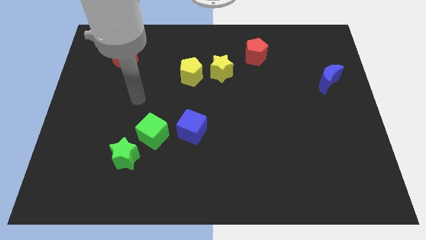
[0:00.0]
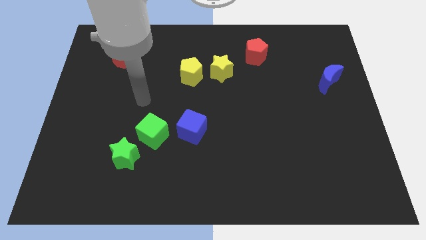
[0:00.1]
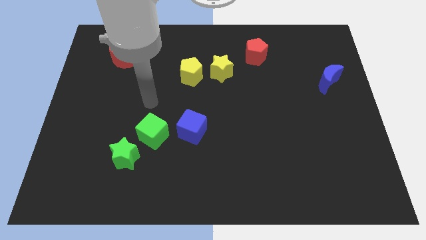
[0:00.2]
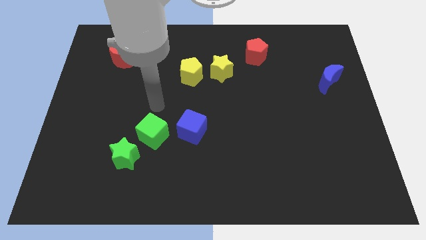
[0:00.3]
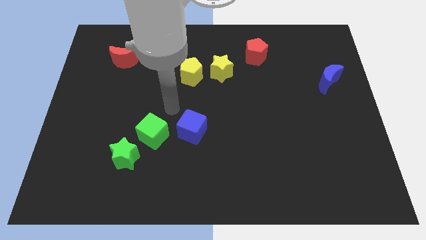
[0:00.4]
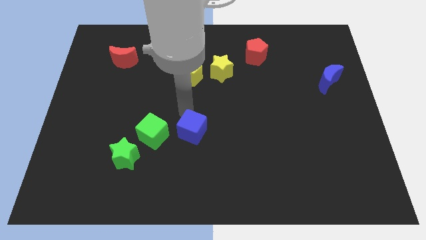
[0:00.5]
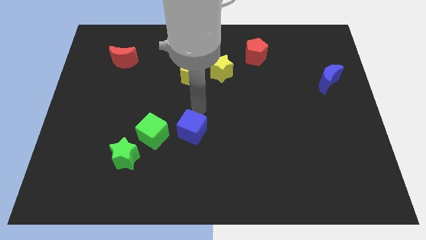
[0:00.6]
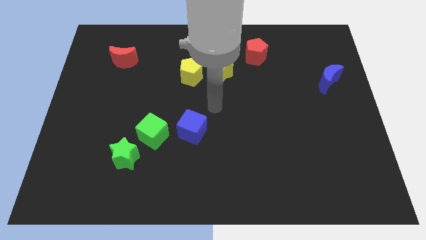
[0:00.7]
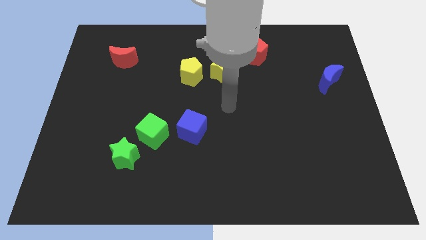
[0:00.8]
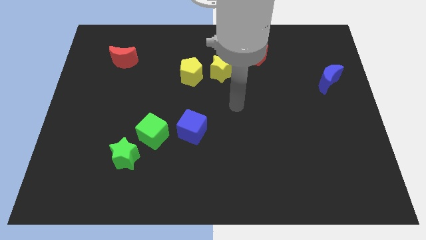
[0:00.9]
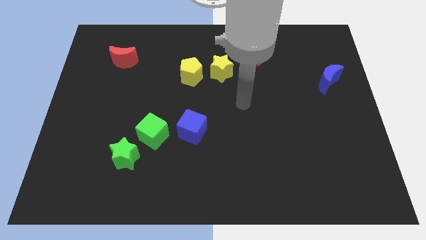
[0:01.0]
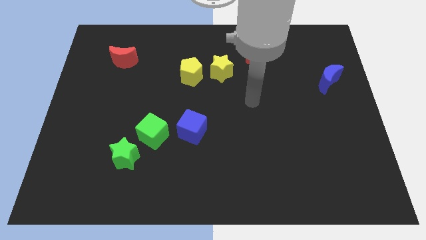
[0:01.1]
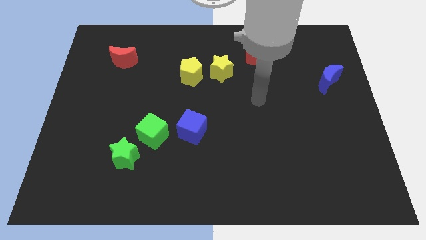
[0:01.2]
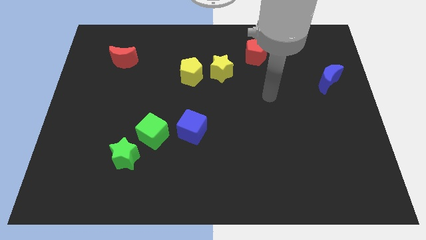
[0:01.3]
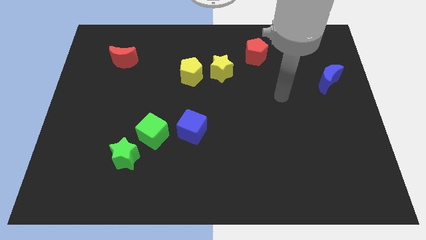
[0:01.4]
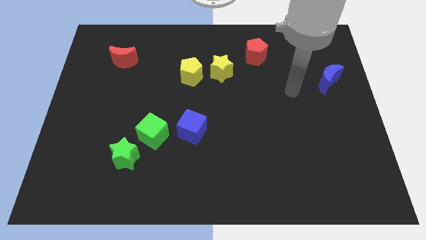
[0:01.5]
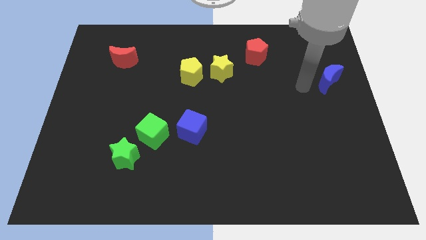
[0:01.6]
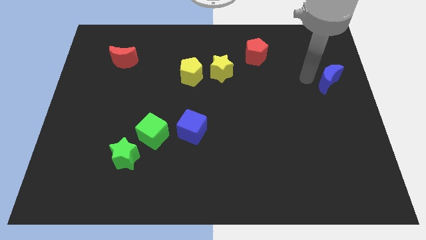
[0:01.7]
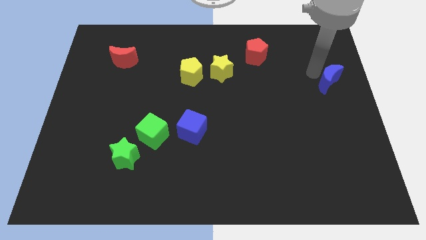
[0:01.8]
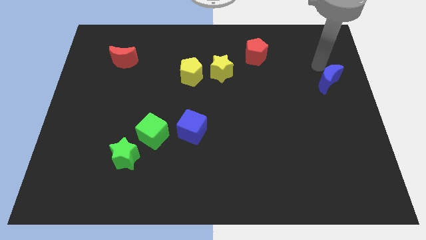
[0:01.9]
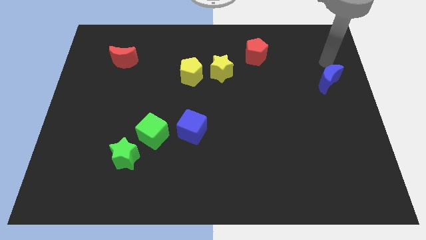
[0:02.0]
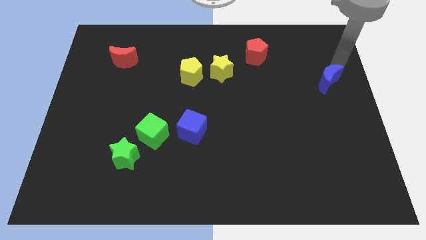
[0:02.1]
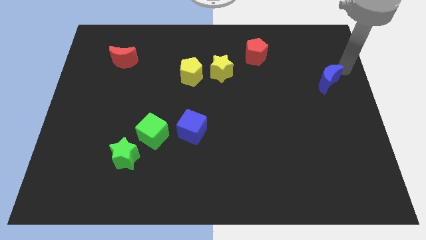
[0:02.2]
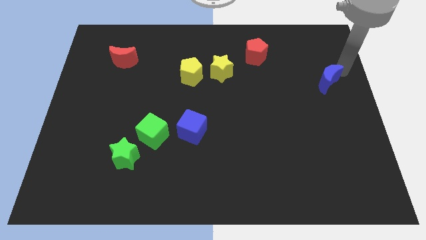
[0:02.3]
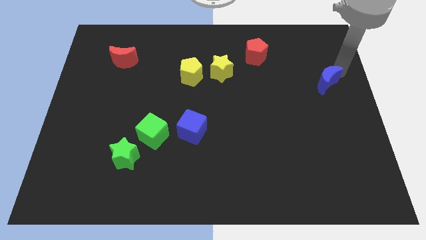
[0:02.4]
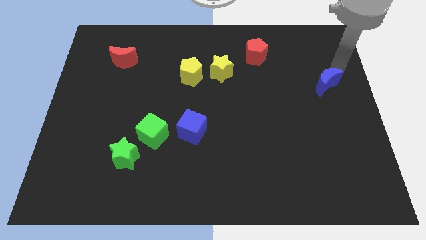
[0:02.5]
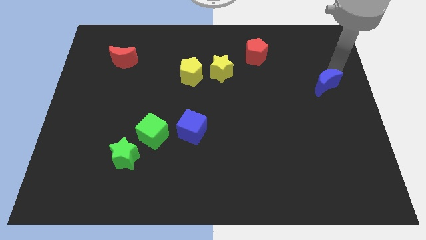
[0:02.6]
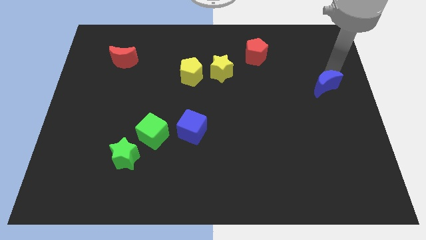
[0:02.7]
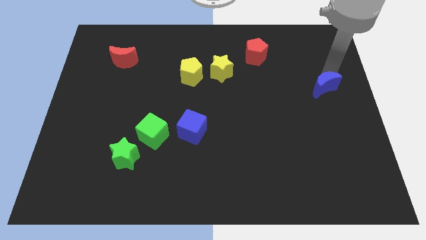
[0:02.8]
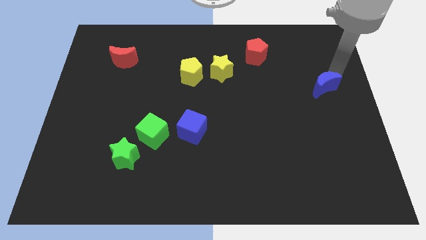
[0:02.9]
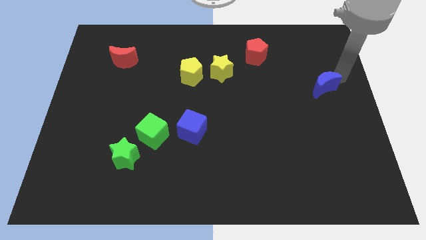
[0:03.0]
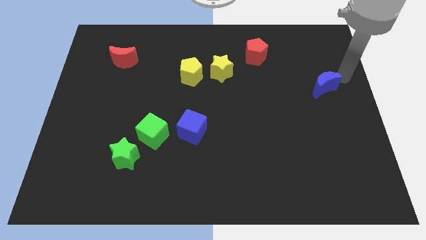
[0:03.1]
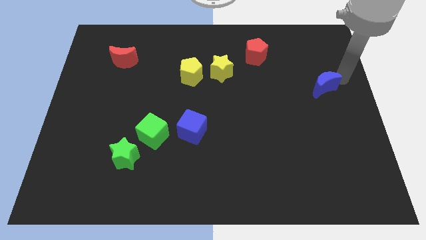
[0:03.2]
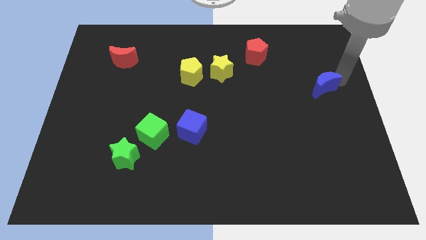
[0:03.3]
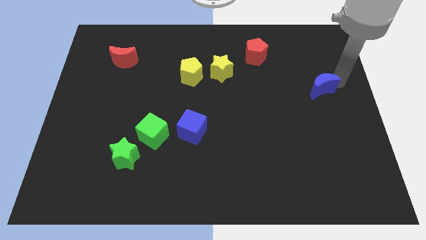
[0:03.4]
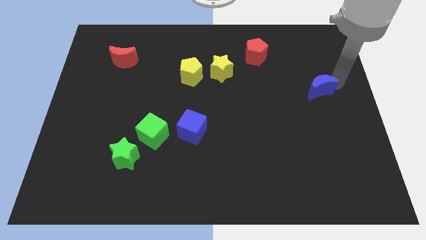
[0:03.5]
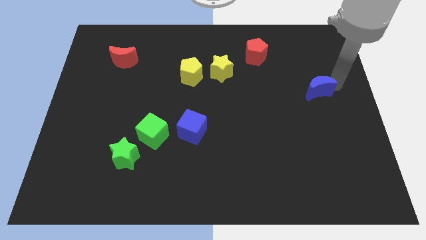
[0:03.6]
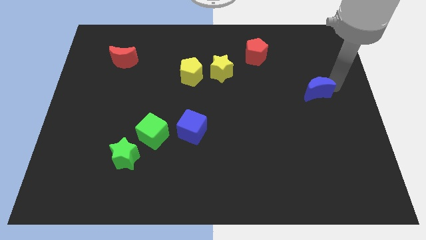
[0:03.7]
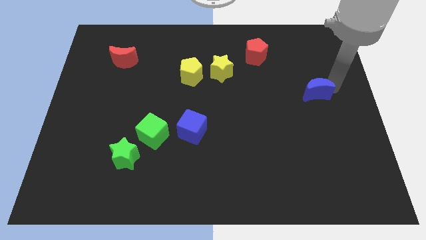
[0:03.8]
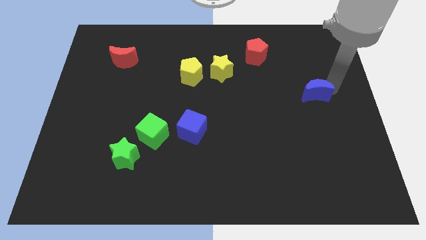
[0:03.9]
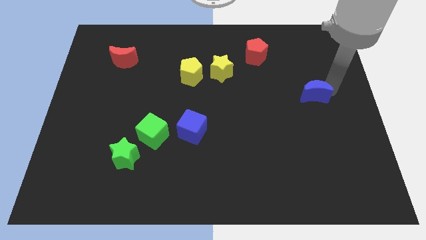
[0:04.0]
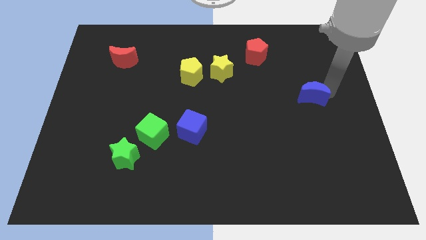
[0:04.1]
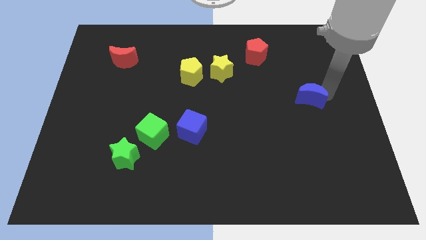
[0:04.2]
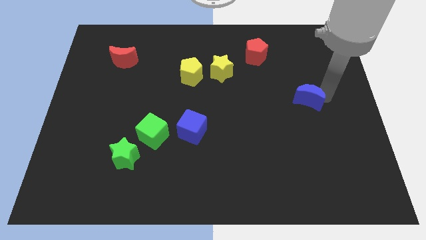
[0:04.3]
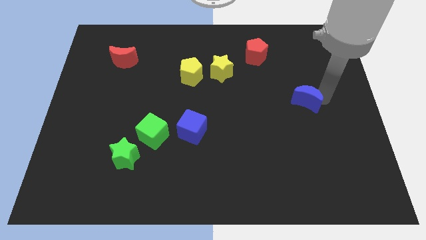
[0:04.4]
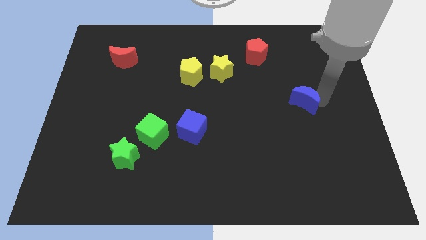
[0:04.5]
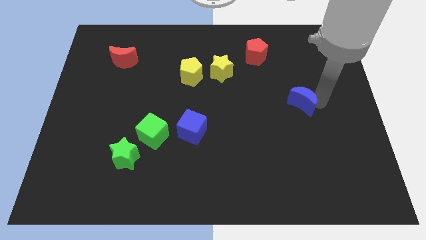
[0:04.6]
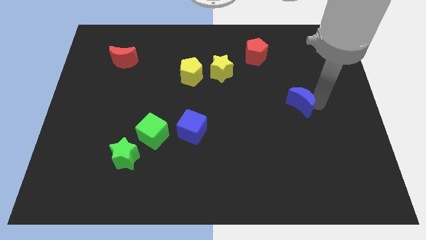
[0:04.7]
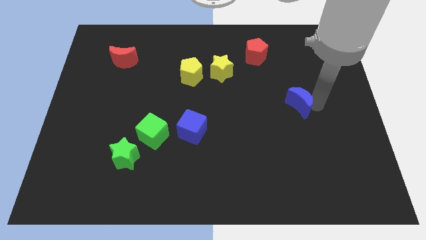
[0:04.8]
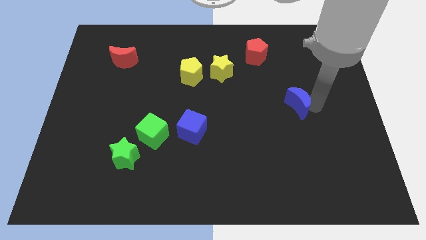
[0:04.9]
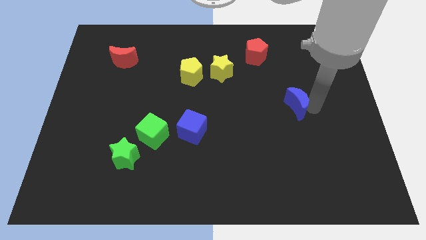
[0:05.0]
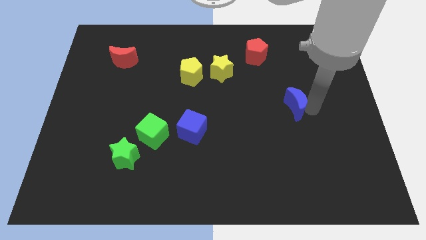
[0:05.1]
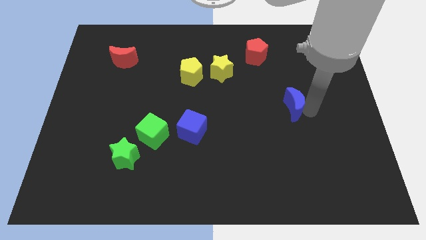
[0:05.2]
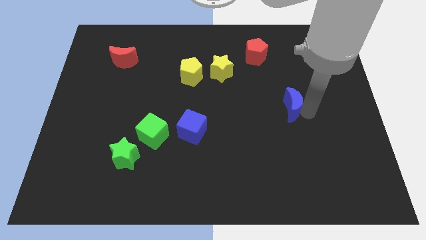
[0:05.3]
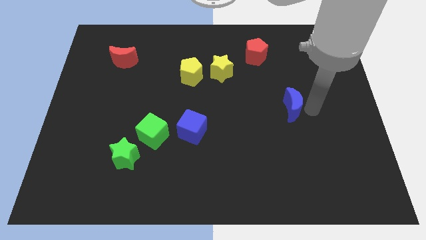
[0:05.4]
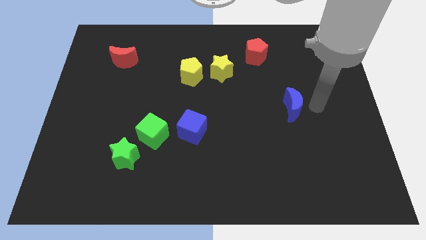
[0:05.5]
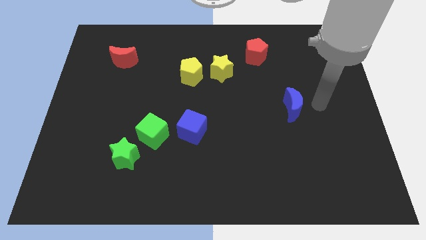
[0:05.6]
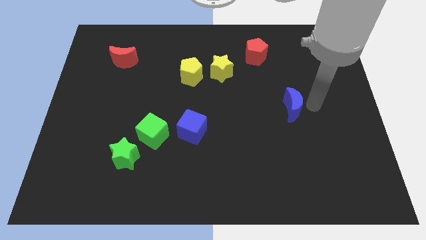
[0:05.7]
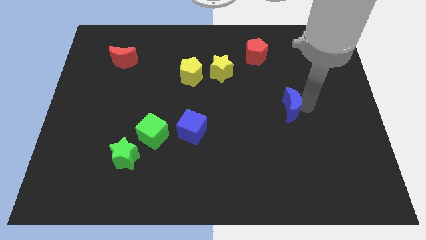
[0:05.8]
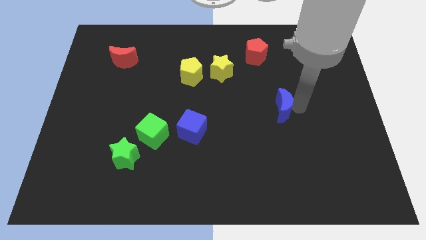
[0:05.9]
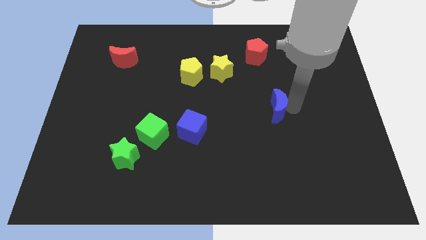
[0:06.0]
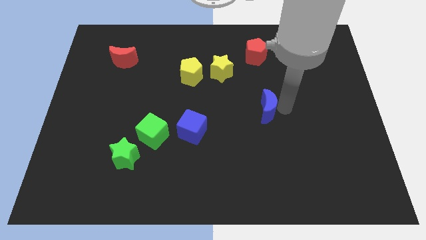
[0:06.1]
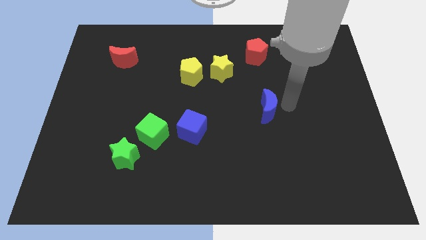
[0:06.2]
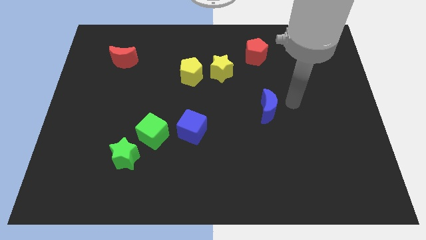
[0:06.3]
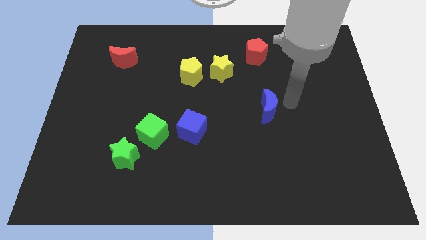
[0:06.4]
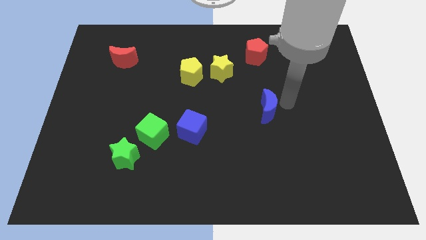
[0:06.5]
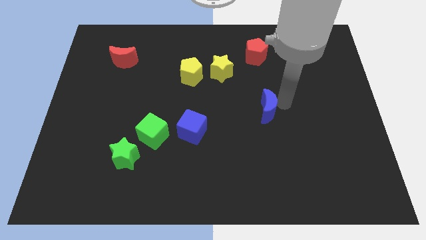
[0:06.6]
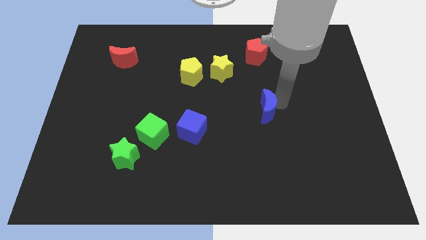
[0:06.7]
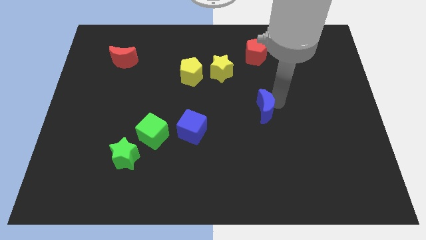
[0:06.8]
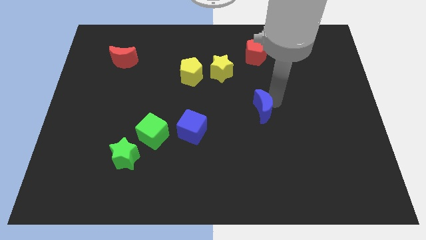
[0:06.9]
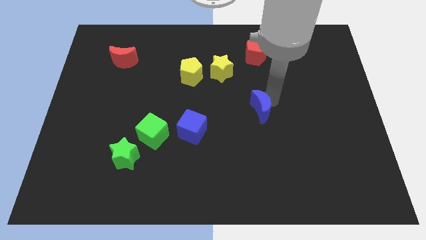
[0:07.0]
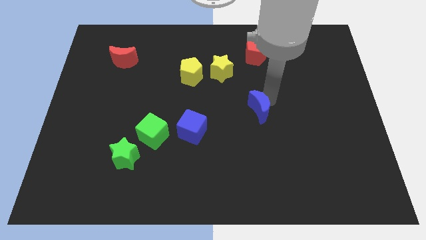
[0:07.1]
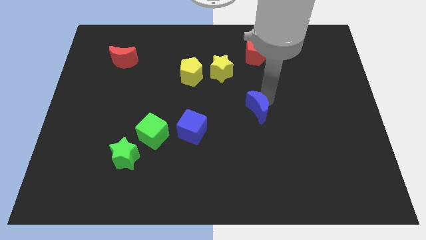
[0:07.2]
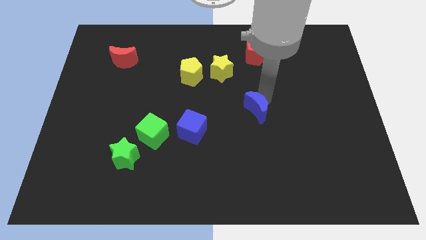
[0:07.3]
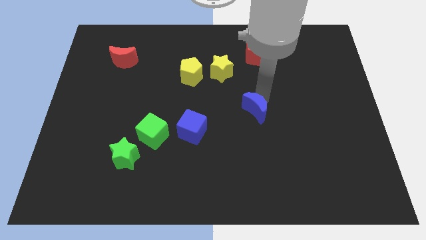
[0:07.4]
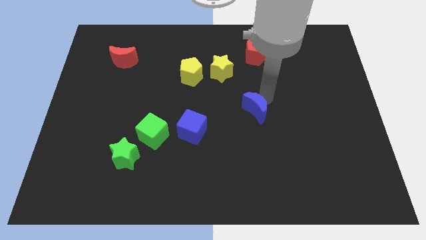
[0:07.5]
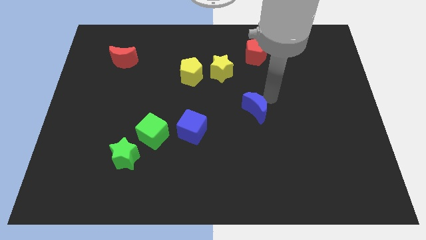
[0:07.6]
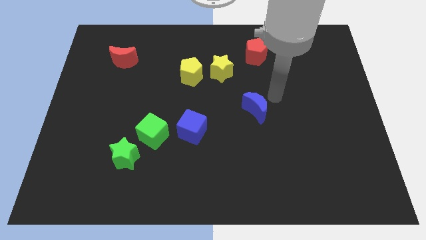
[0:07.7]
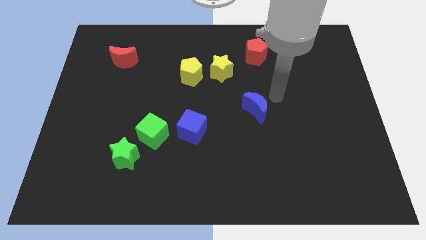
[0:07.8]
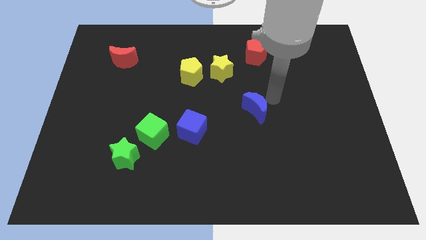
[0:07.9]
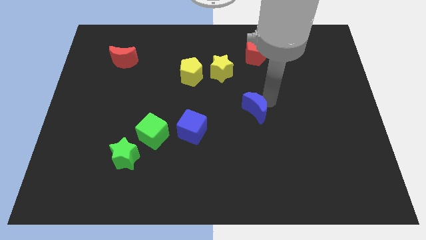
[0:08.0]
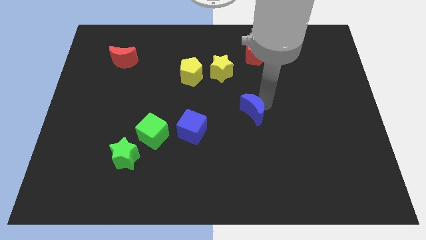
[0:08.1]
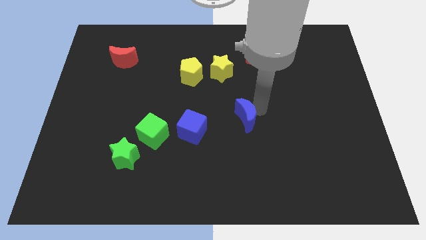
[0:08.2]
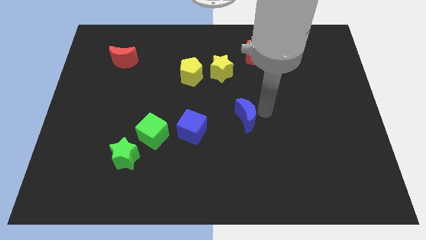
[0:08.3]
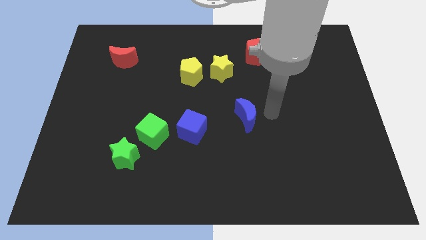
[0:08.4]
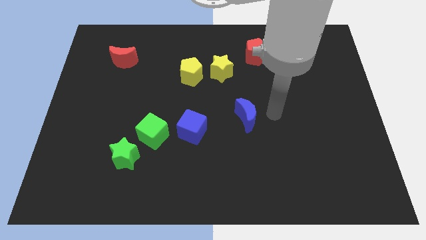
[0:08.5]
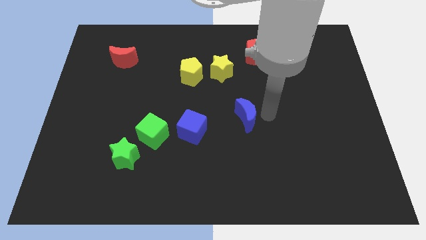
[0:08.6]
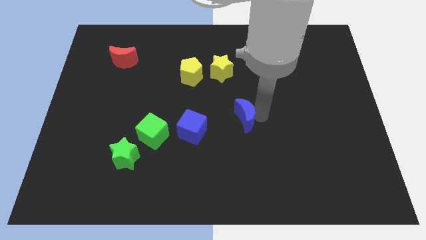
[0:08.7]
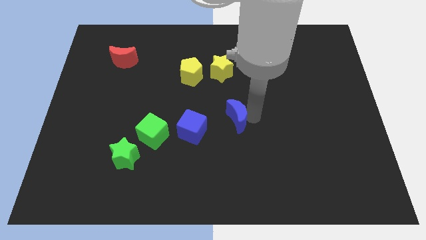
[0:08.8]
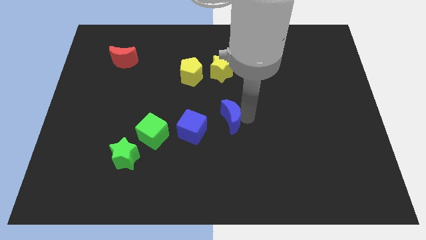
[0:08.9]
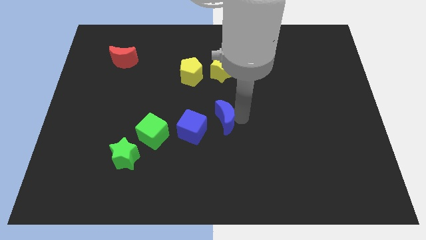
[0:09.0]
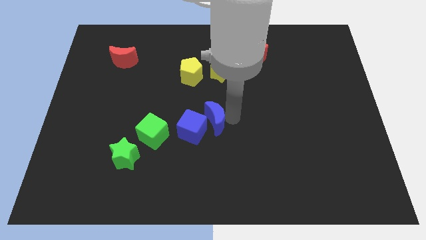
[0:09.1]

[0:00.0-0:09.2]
put the blue moon next to the blue cube
